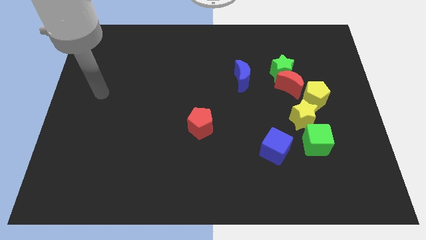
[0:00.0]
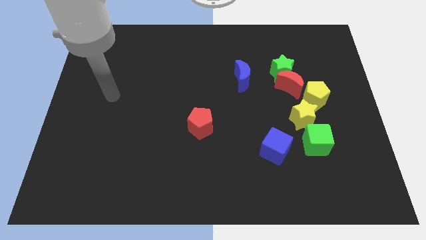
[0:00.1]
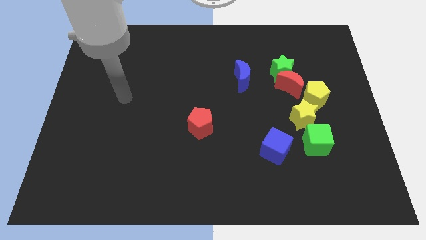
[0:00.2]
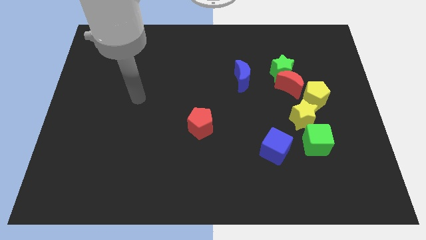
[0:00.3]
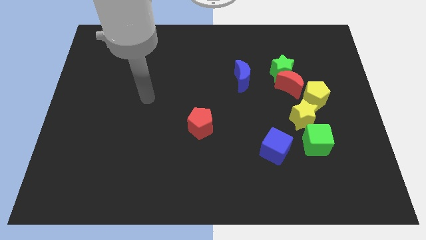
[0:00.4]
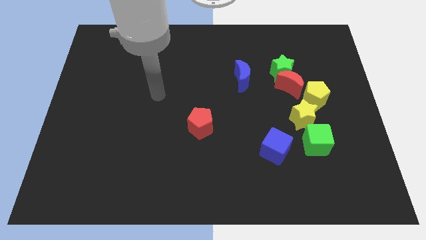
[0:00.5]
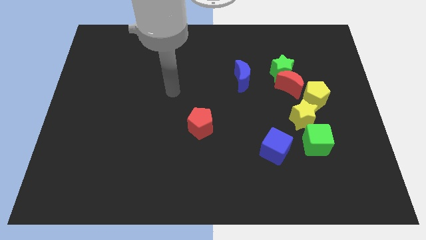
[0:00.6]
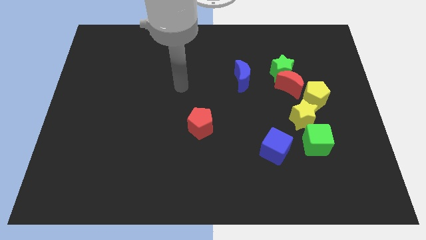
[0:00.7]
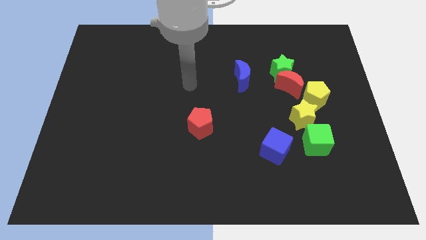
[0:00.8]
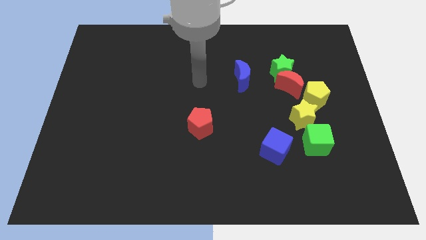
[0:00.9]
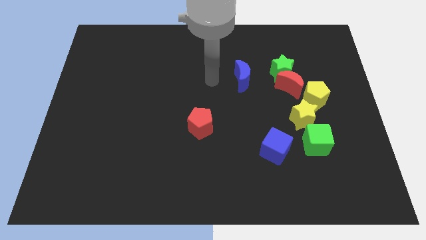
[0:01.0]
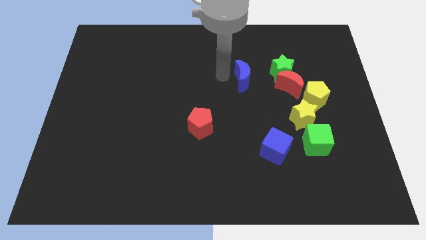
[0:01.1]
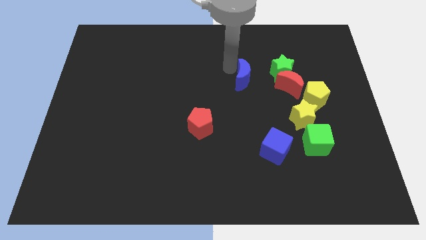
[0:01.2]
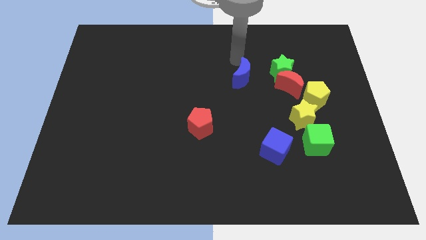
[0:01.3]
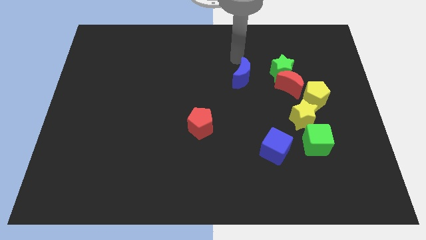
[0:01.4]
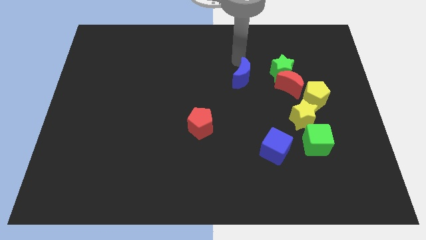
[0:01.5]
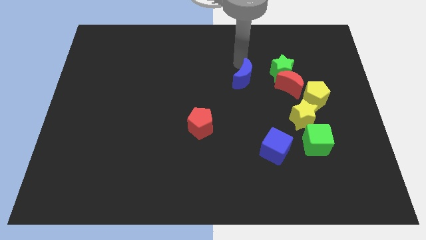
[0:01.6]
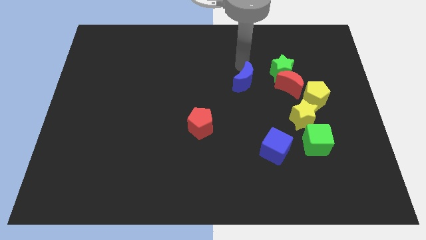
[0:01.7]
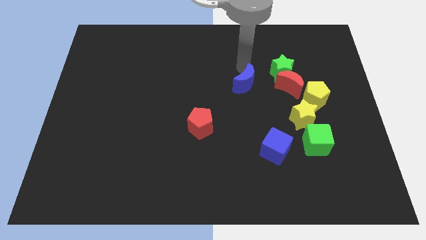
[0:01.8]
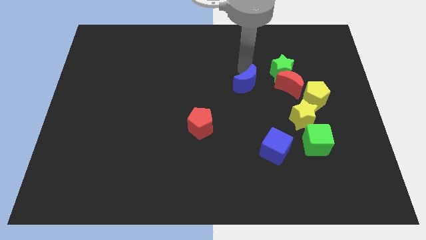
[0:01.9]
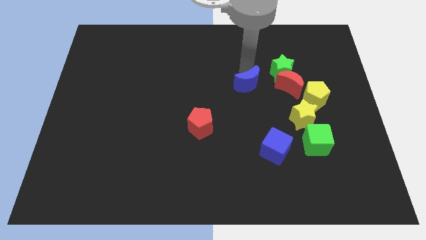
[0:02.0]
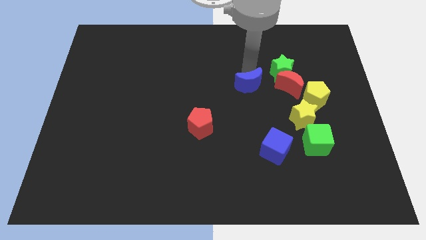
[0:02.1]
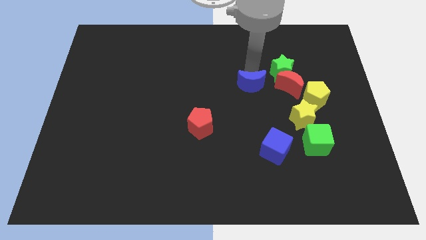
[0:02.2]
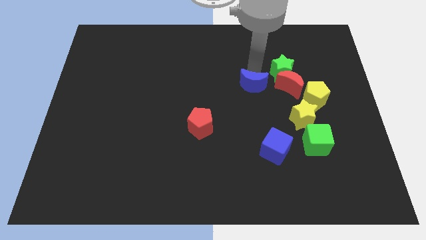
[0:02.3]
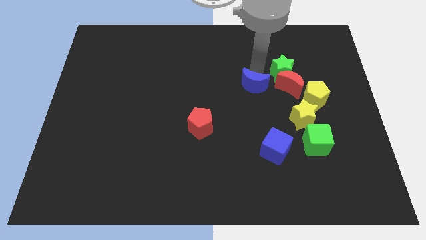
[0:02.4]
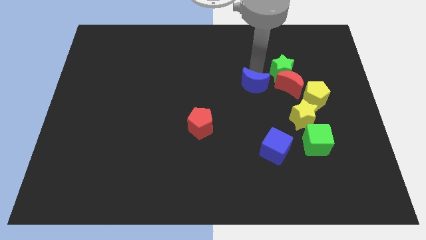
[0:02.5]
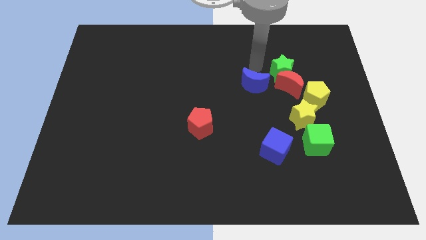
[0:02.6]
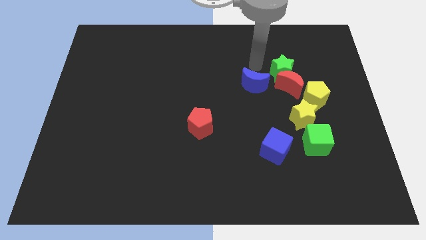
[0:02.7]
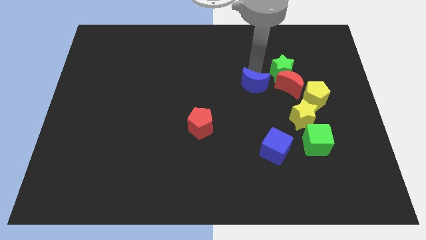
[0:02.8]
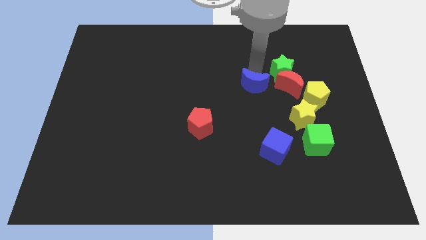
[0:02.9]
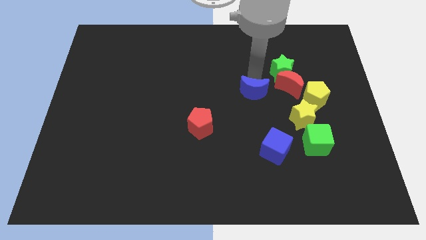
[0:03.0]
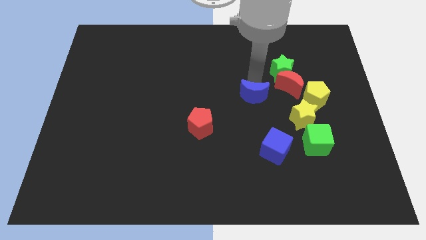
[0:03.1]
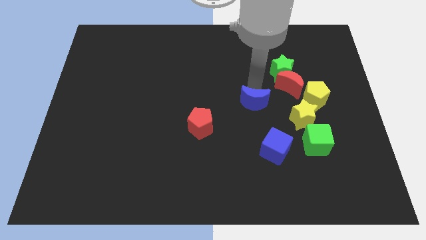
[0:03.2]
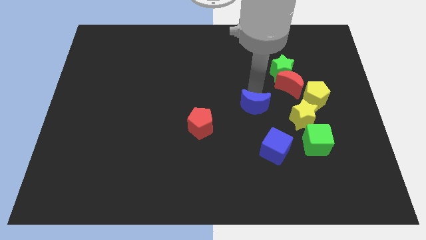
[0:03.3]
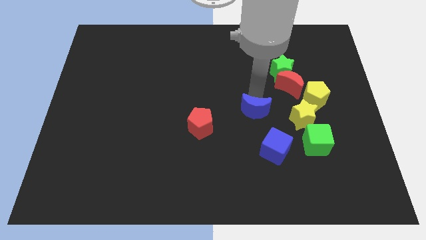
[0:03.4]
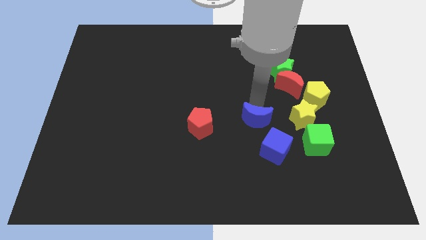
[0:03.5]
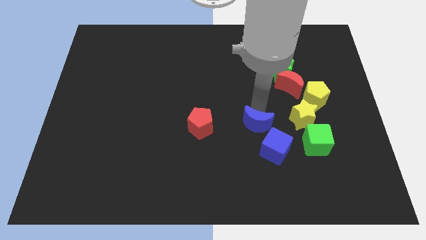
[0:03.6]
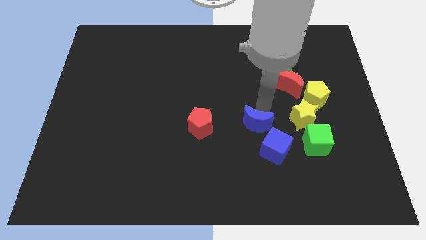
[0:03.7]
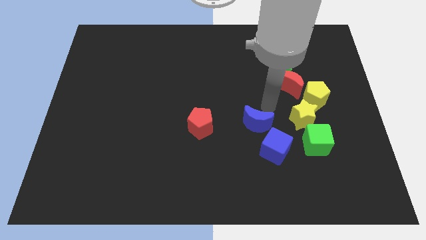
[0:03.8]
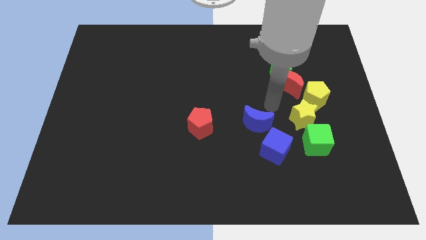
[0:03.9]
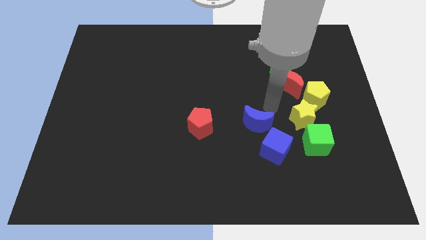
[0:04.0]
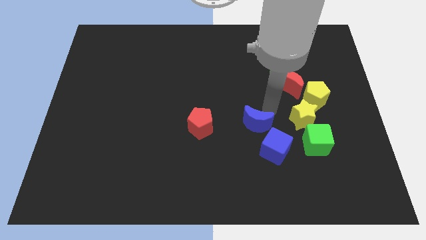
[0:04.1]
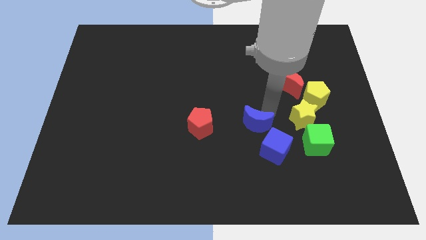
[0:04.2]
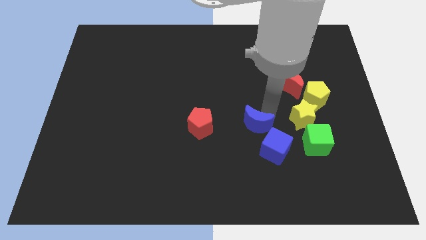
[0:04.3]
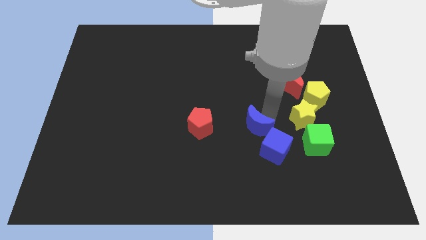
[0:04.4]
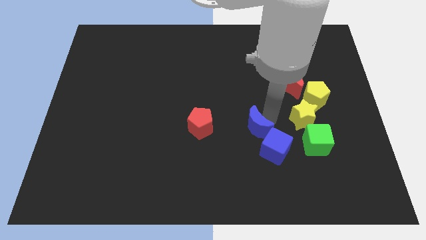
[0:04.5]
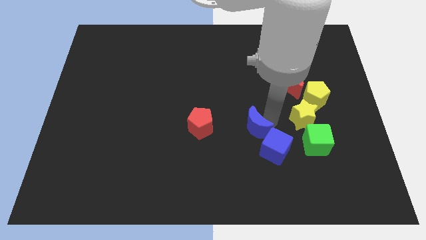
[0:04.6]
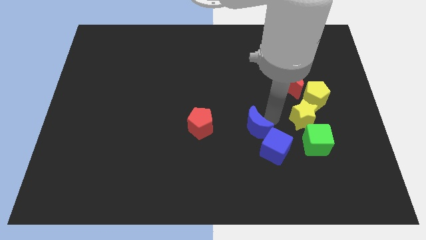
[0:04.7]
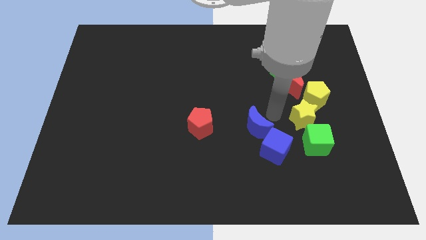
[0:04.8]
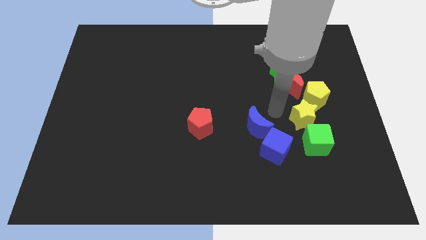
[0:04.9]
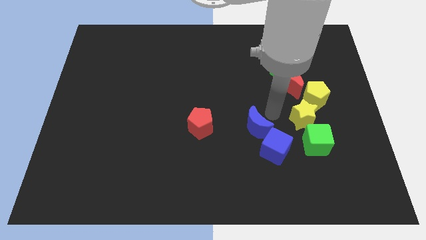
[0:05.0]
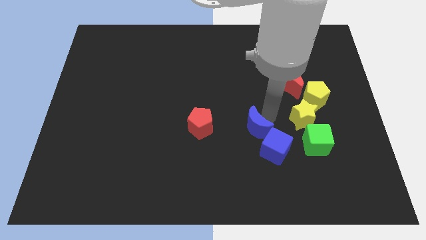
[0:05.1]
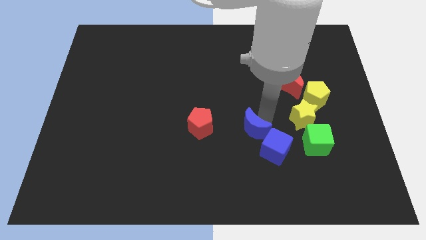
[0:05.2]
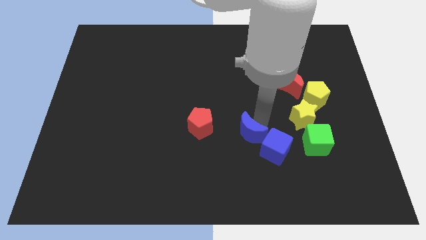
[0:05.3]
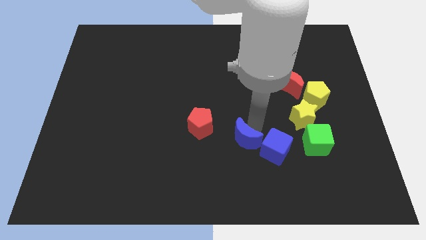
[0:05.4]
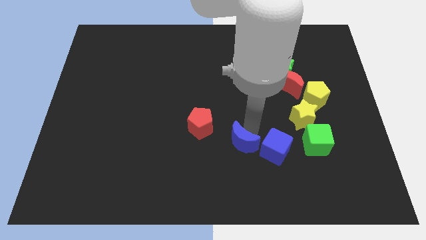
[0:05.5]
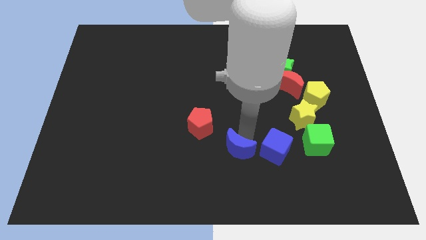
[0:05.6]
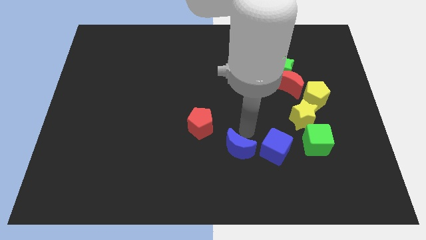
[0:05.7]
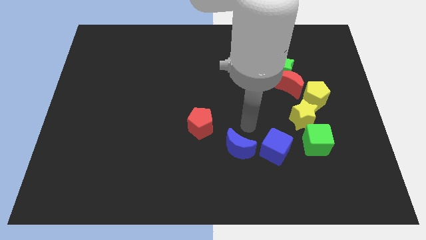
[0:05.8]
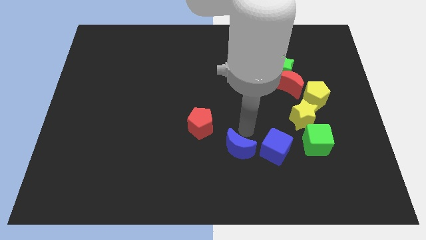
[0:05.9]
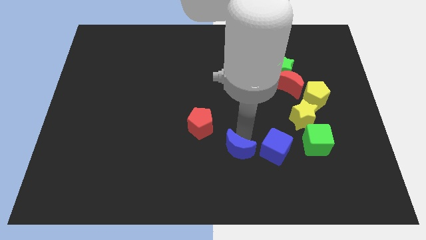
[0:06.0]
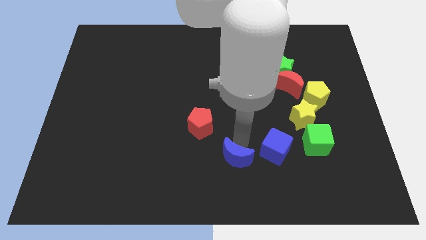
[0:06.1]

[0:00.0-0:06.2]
put the blue moon to the bottom

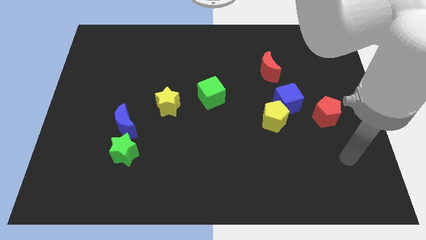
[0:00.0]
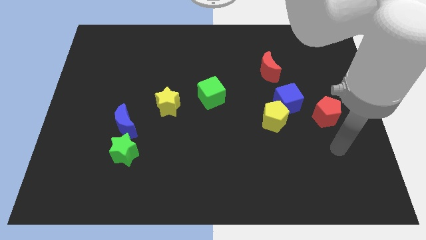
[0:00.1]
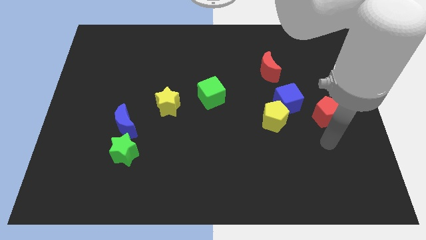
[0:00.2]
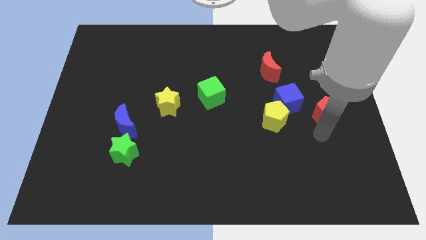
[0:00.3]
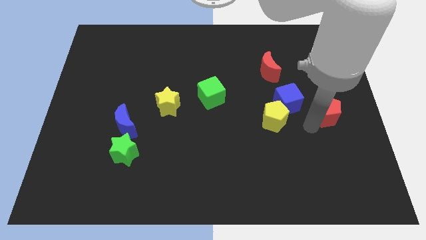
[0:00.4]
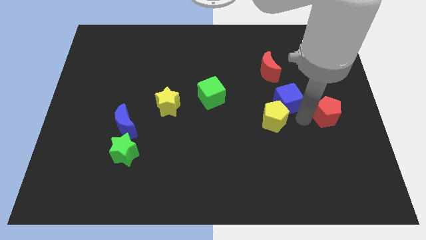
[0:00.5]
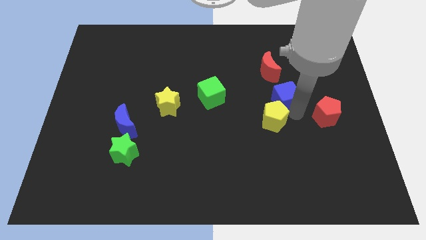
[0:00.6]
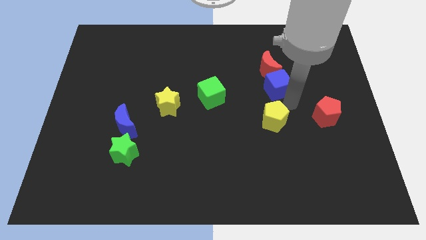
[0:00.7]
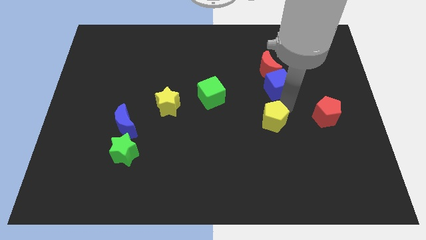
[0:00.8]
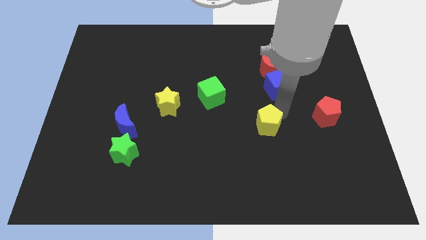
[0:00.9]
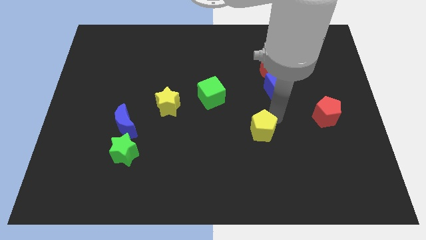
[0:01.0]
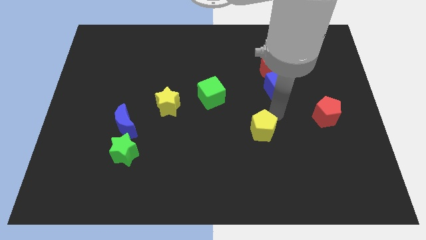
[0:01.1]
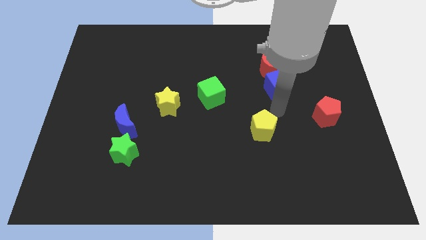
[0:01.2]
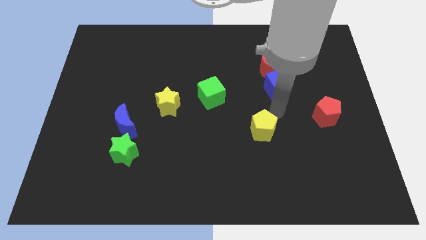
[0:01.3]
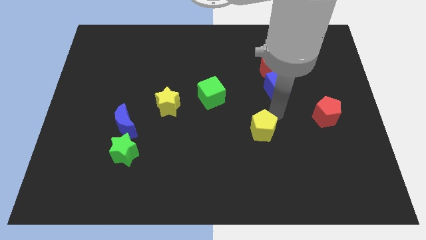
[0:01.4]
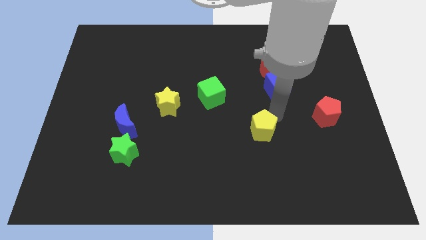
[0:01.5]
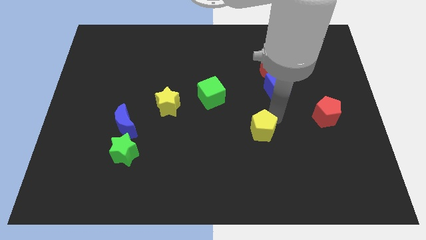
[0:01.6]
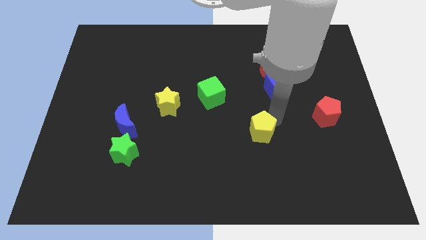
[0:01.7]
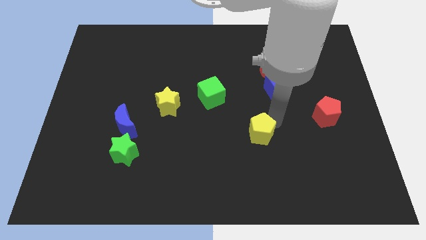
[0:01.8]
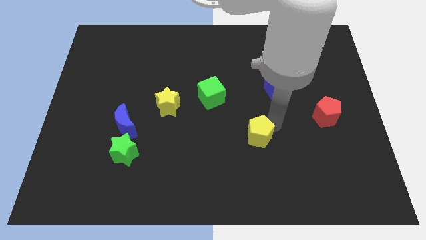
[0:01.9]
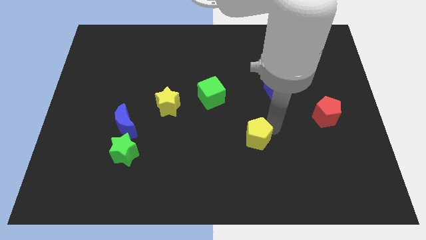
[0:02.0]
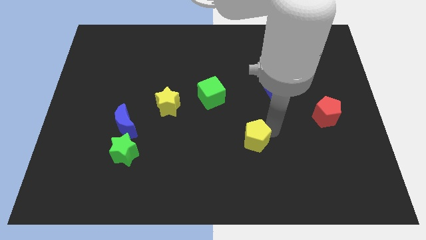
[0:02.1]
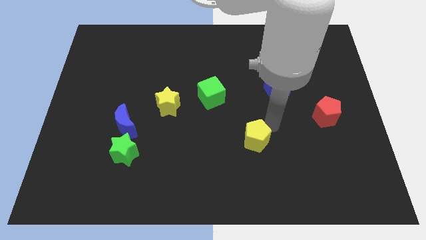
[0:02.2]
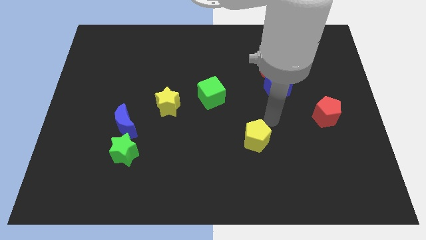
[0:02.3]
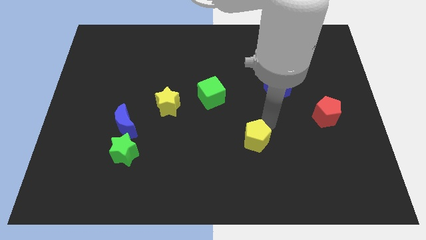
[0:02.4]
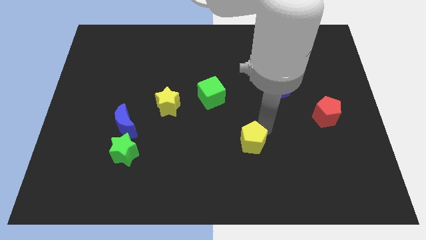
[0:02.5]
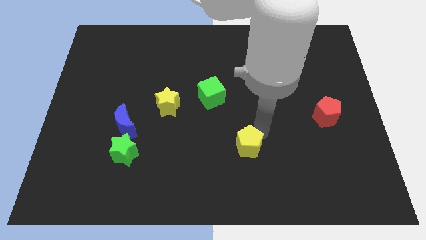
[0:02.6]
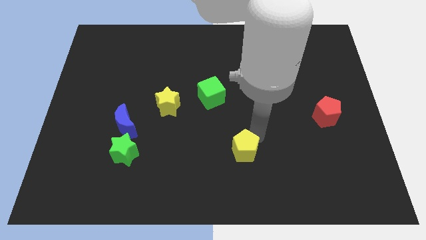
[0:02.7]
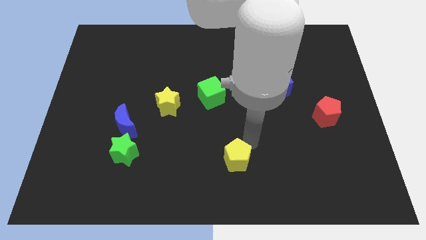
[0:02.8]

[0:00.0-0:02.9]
move the yellow pentagon to the bottom
